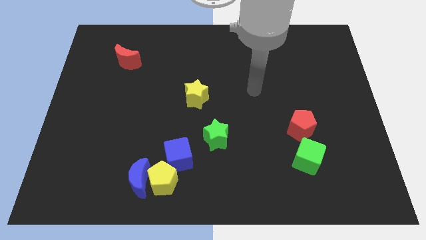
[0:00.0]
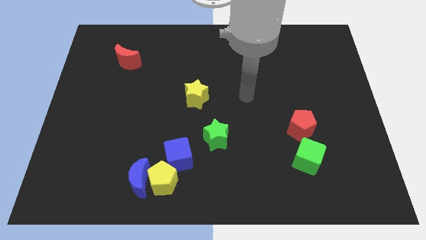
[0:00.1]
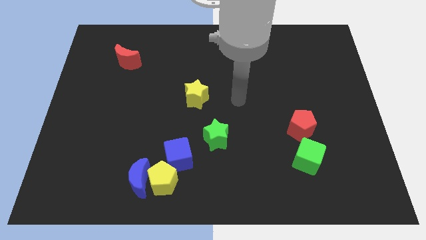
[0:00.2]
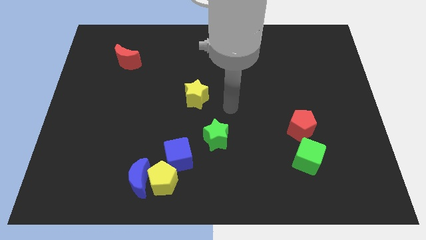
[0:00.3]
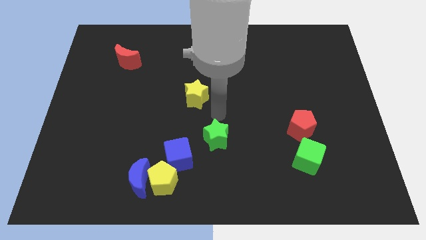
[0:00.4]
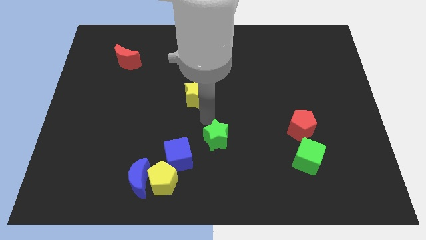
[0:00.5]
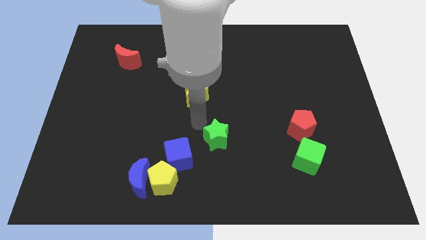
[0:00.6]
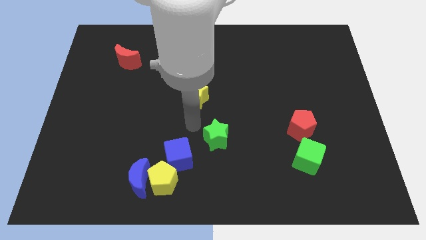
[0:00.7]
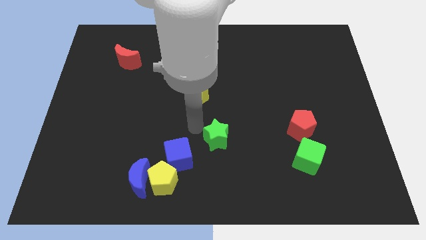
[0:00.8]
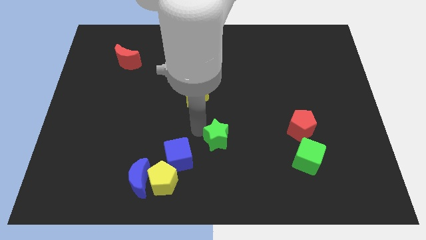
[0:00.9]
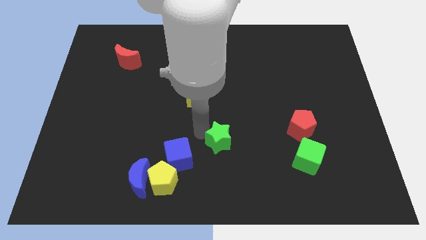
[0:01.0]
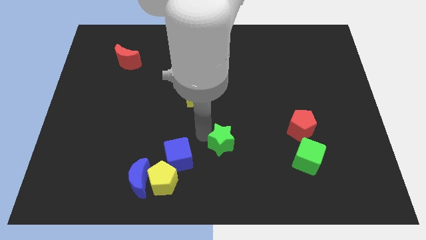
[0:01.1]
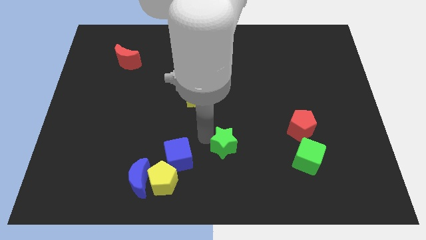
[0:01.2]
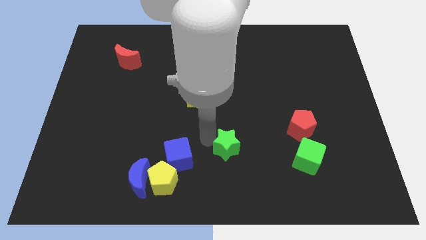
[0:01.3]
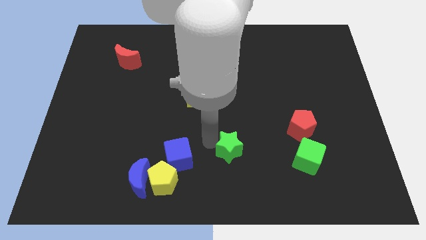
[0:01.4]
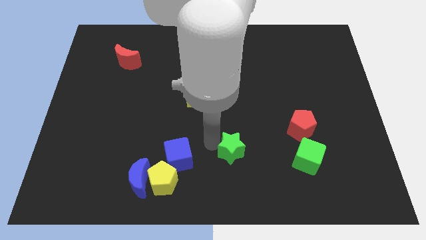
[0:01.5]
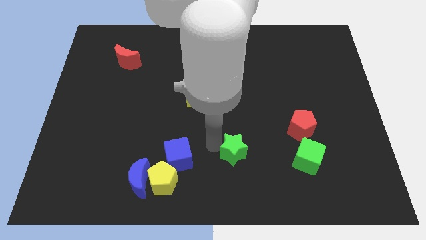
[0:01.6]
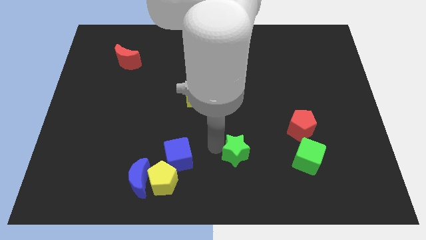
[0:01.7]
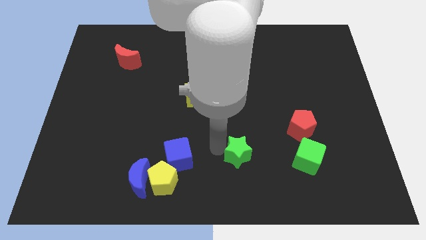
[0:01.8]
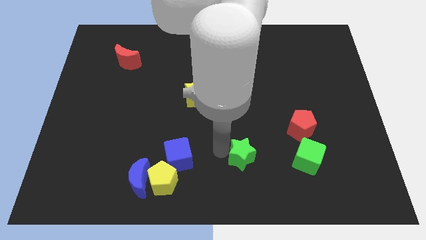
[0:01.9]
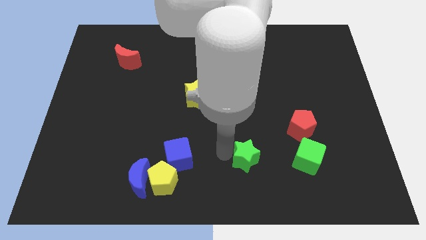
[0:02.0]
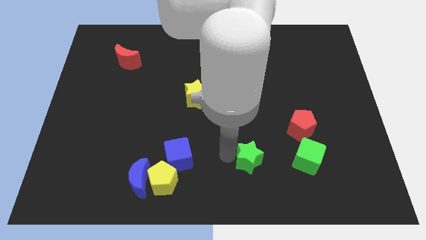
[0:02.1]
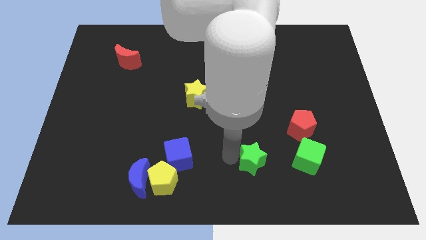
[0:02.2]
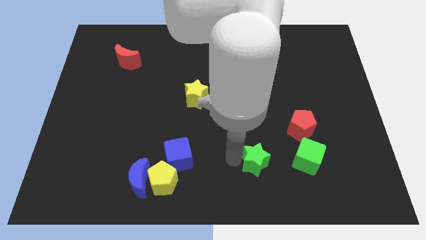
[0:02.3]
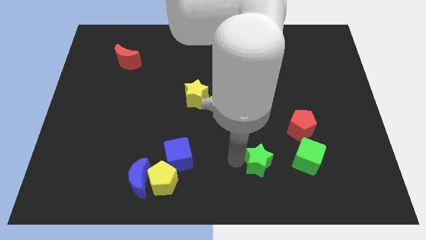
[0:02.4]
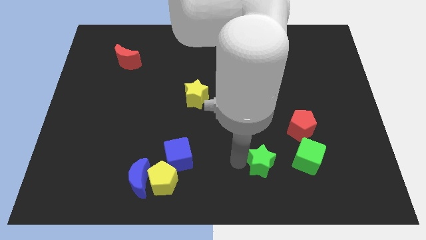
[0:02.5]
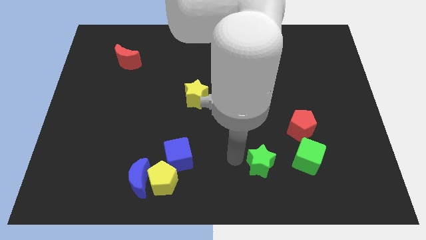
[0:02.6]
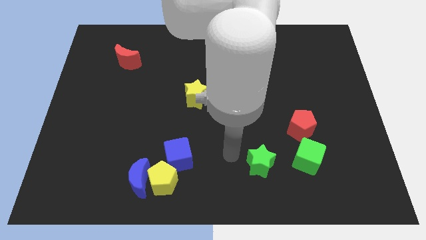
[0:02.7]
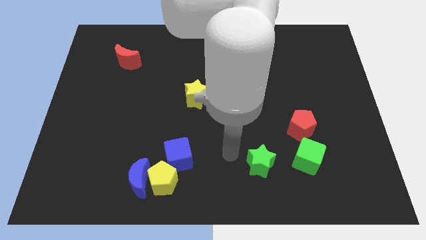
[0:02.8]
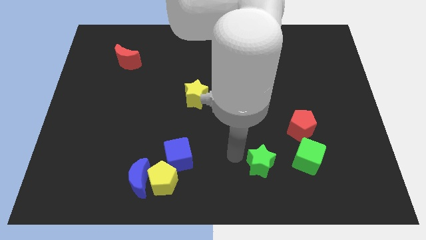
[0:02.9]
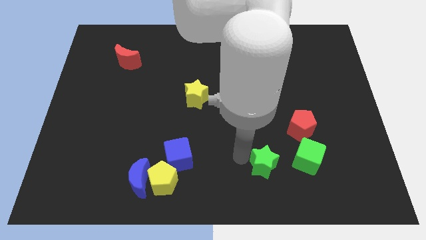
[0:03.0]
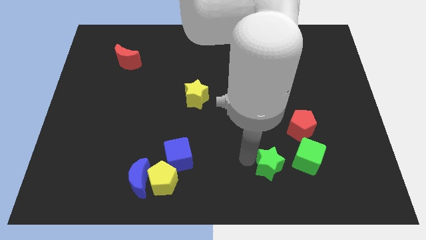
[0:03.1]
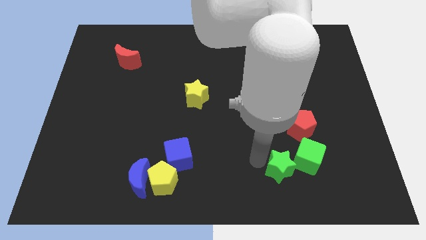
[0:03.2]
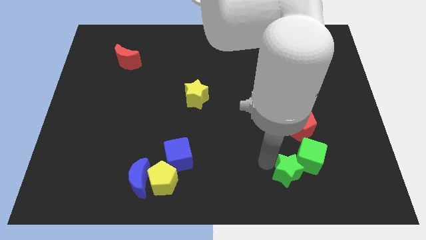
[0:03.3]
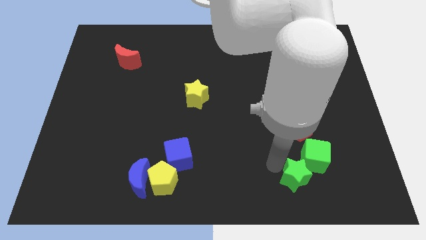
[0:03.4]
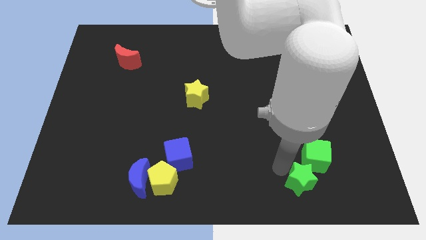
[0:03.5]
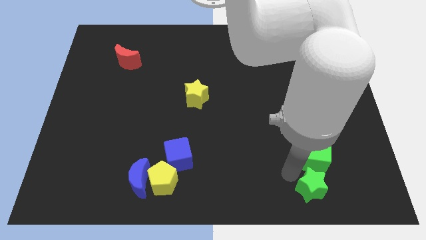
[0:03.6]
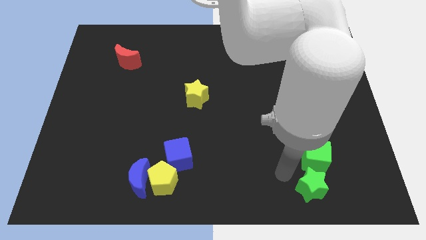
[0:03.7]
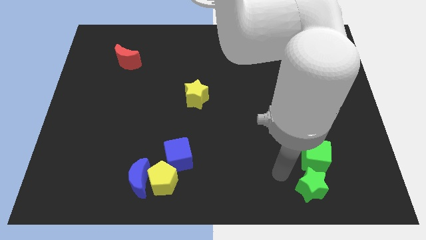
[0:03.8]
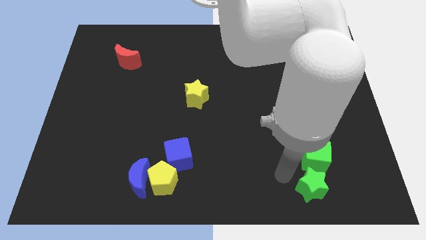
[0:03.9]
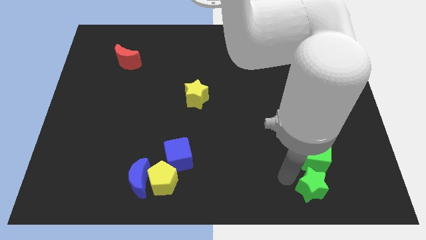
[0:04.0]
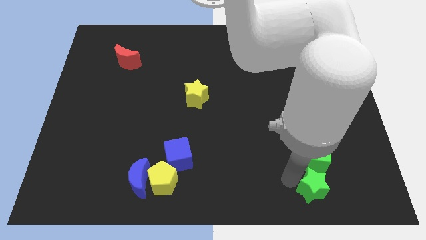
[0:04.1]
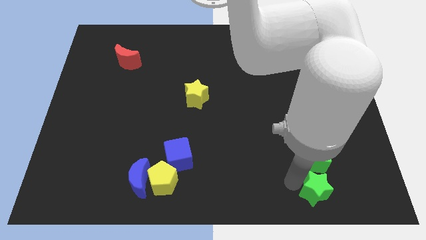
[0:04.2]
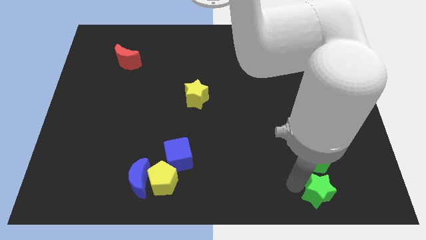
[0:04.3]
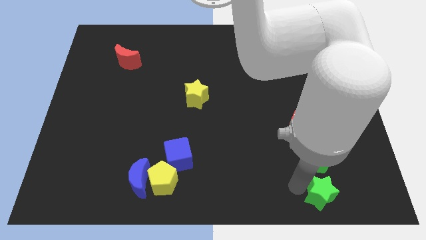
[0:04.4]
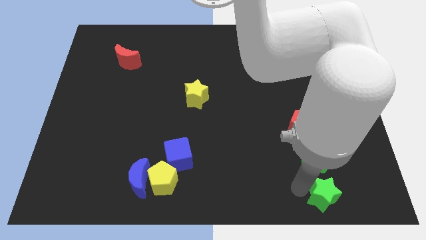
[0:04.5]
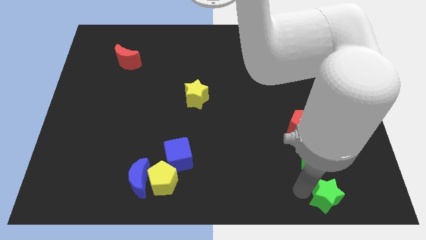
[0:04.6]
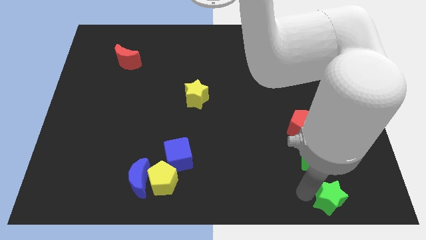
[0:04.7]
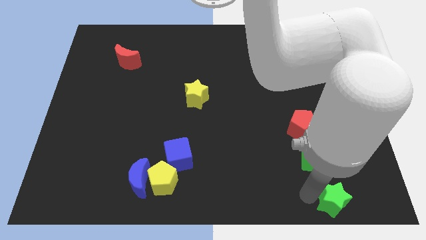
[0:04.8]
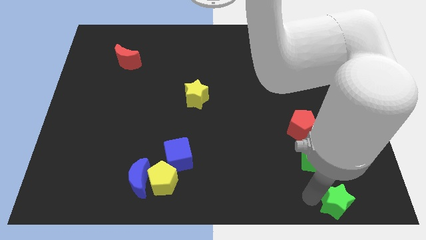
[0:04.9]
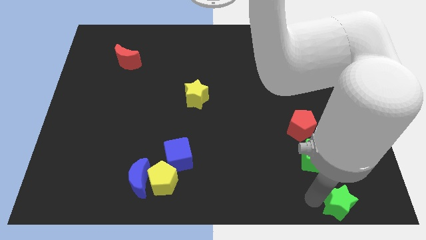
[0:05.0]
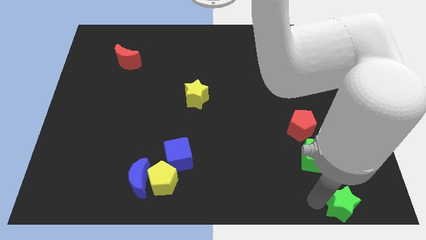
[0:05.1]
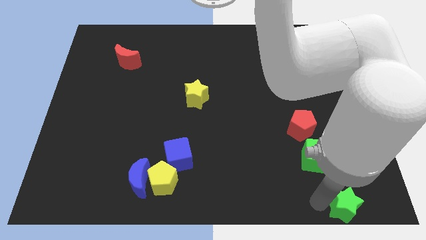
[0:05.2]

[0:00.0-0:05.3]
push the green star to the lower right corner
